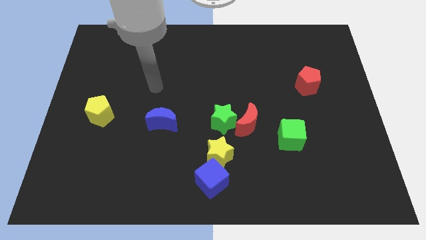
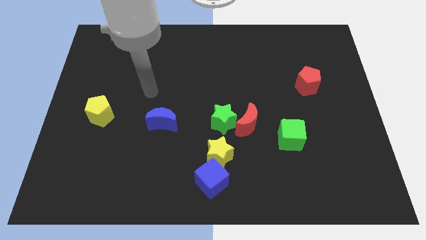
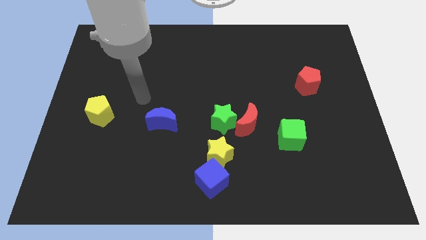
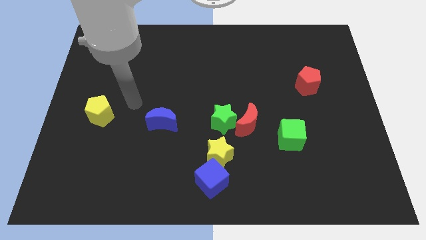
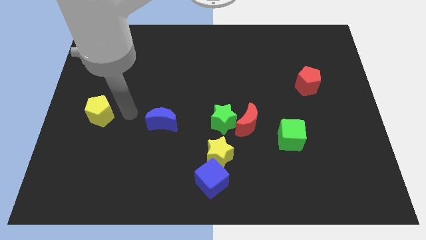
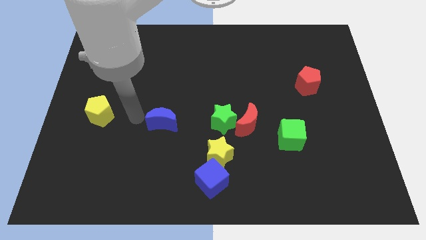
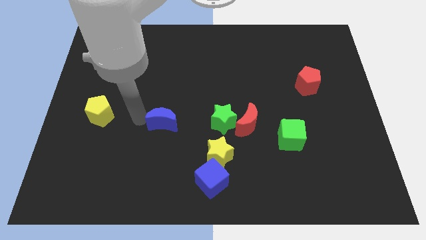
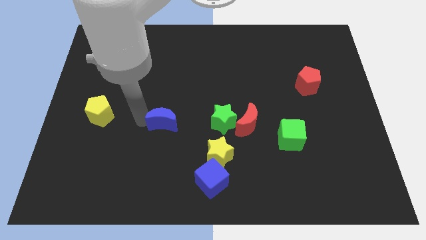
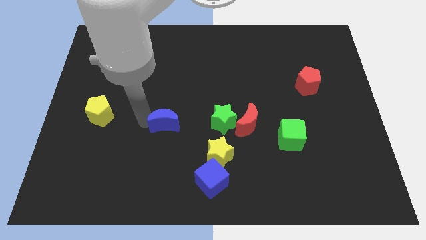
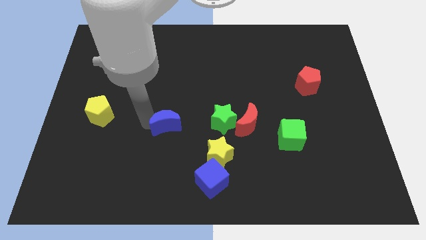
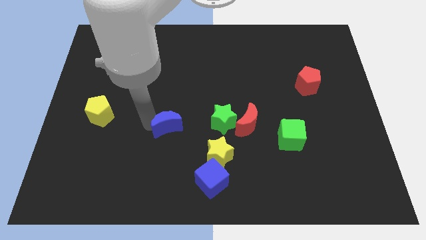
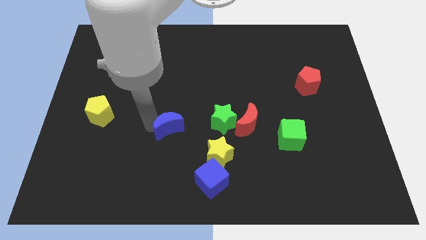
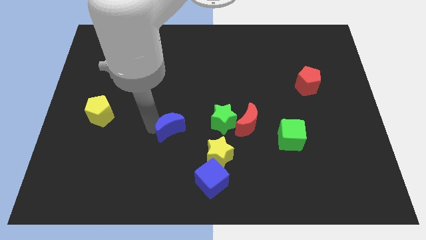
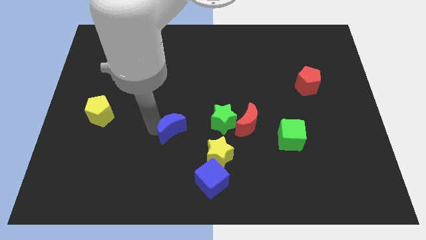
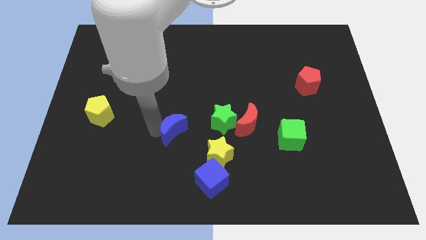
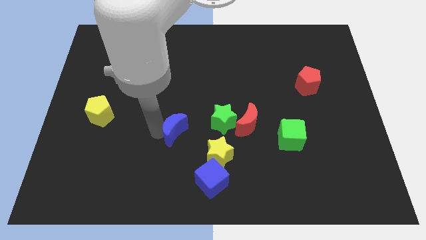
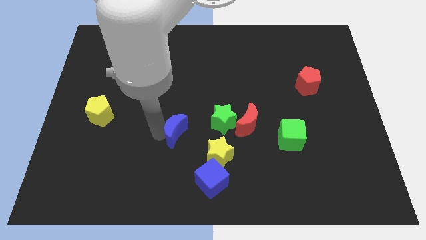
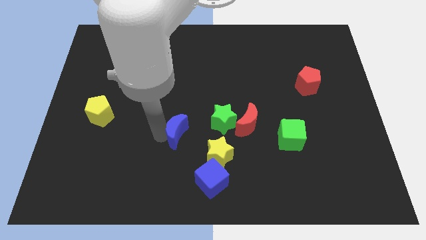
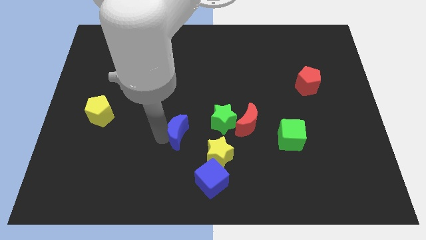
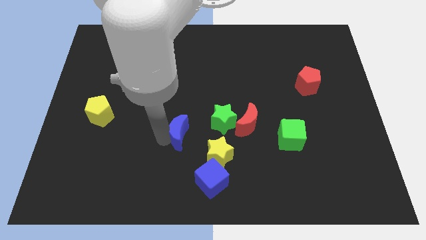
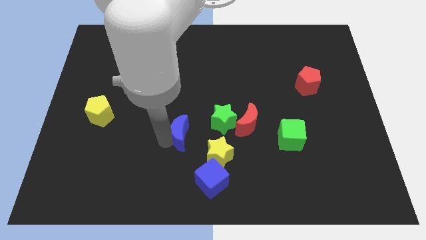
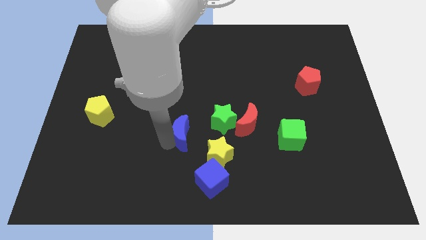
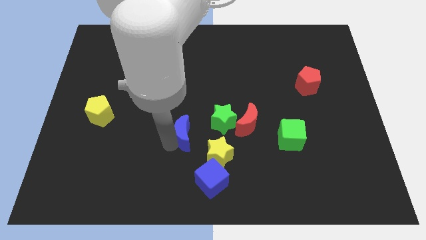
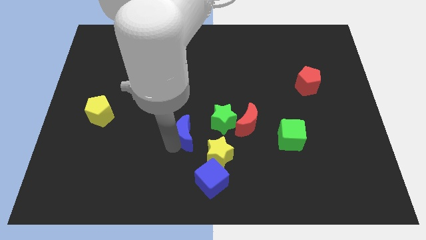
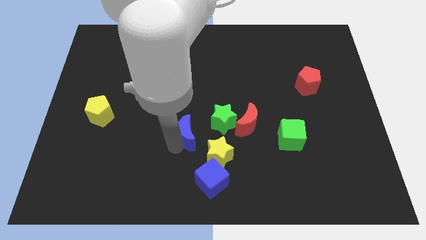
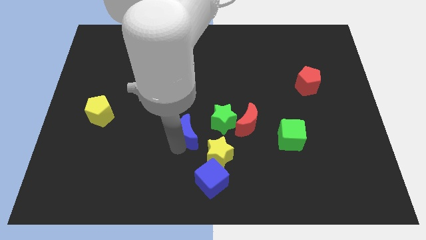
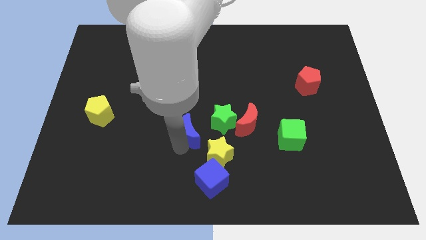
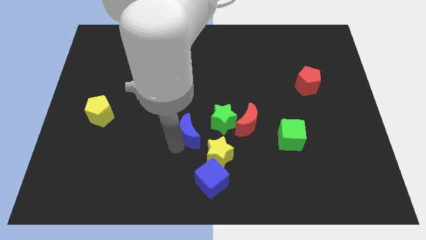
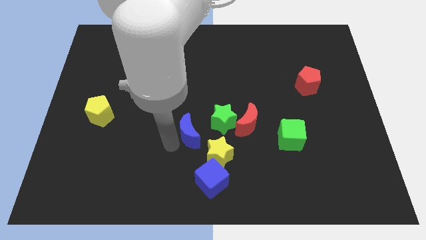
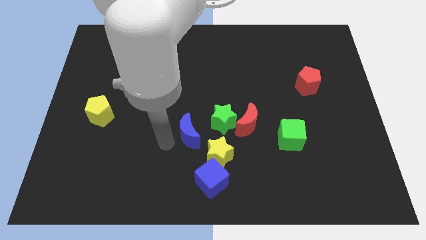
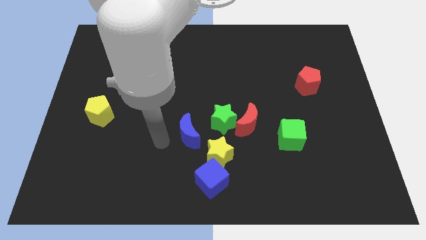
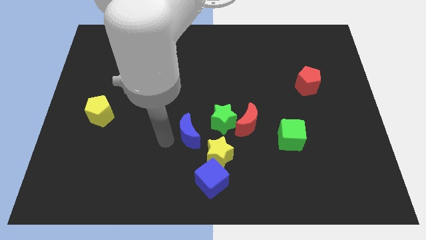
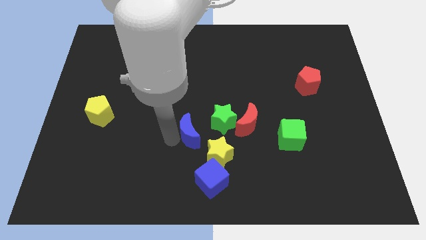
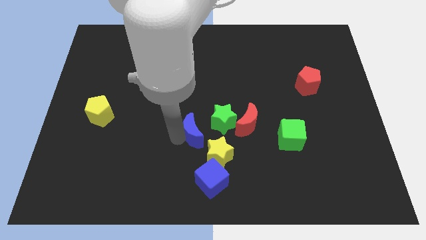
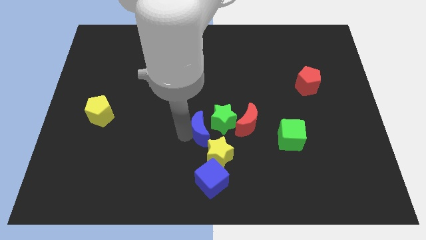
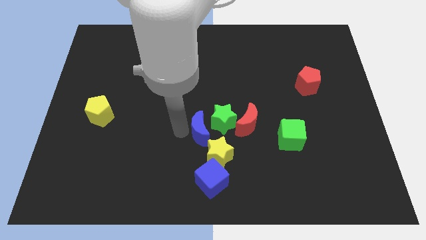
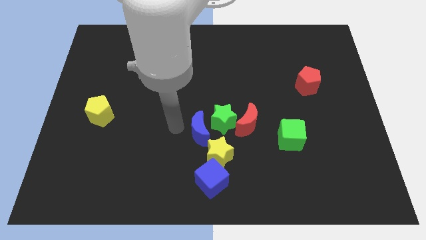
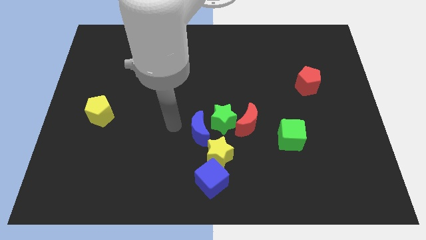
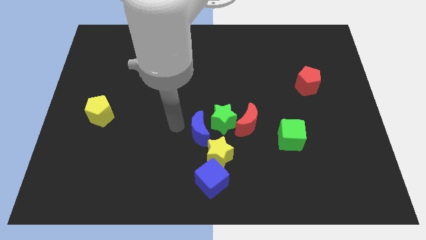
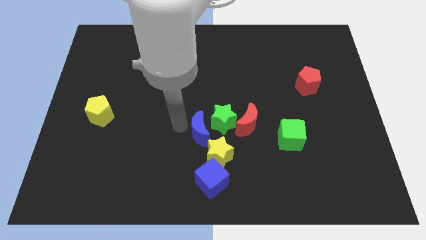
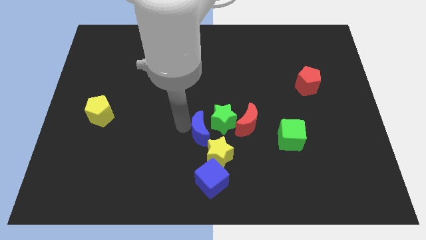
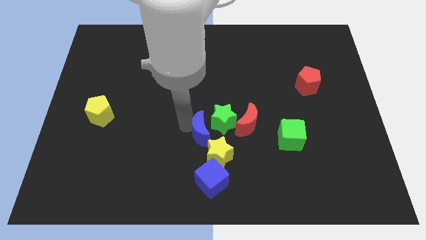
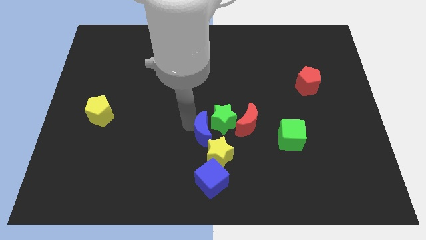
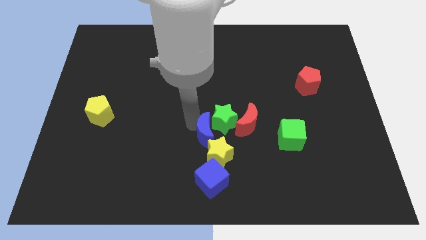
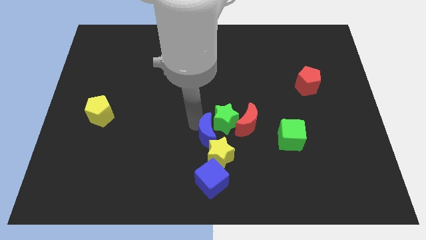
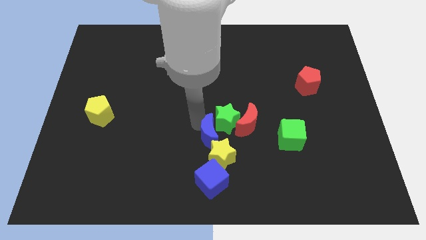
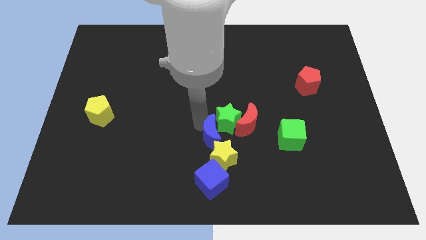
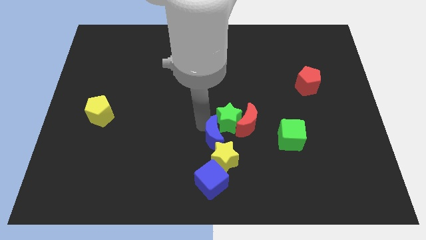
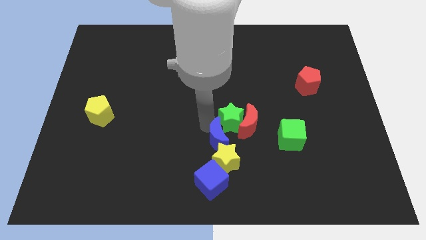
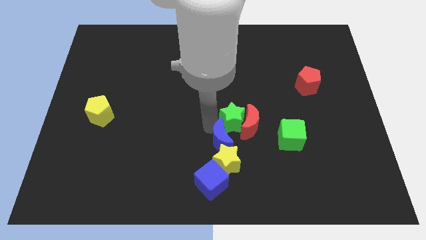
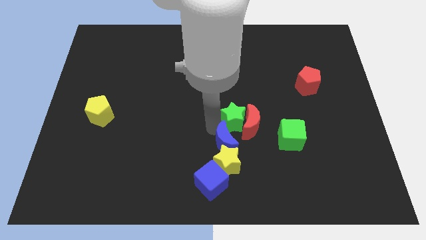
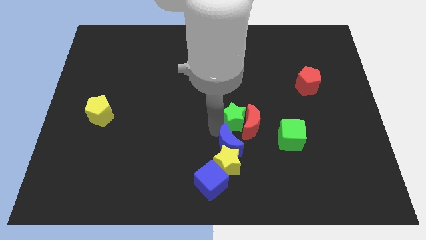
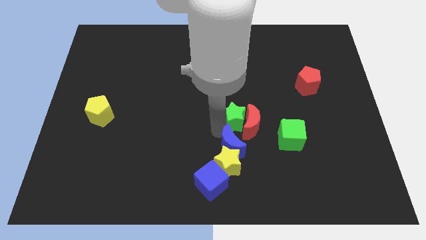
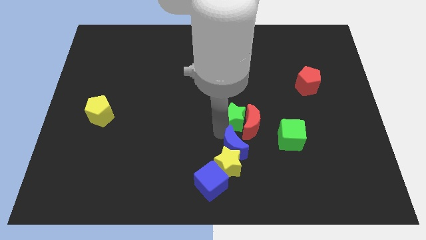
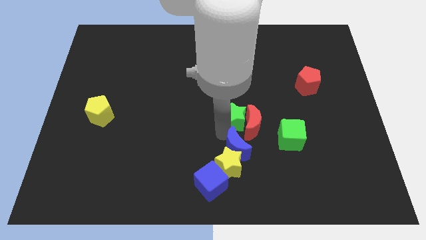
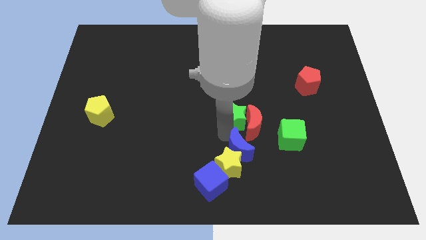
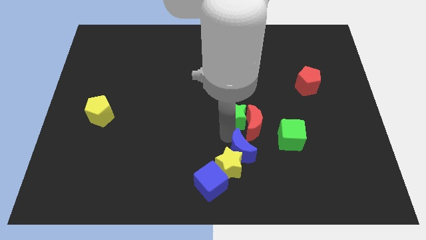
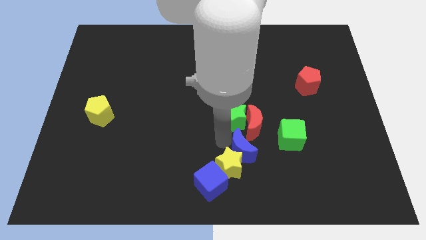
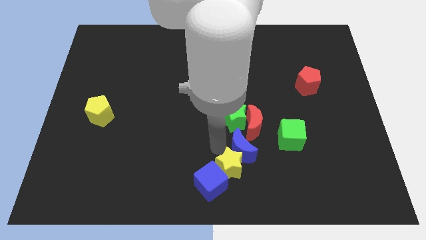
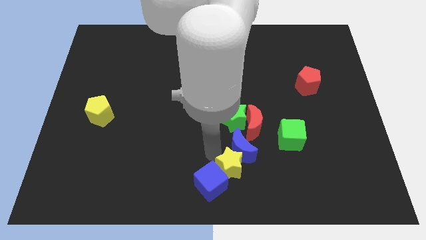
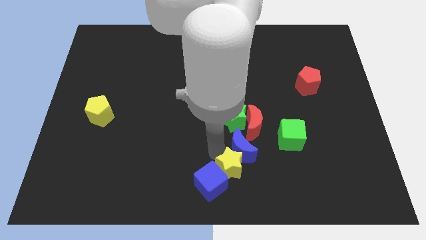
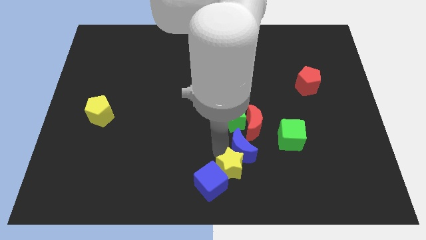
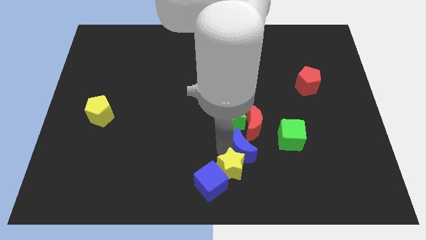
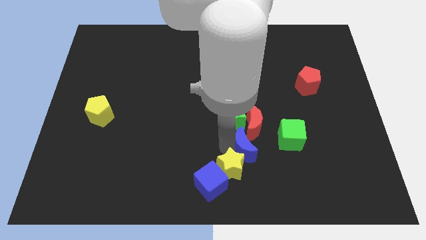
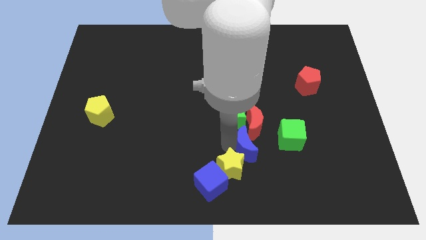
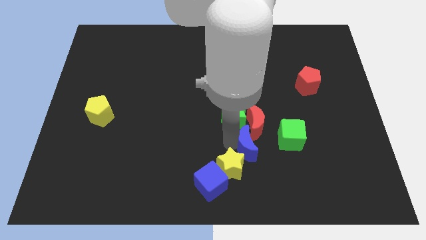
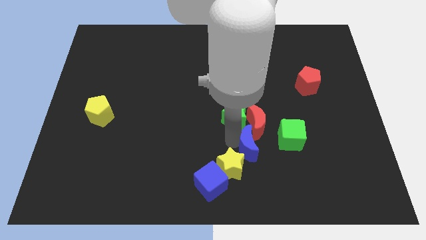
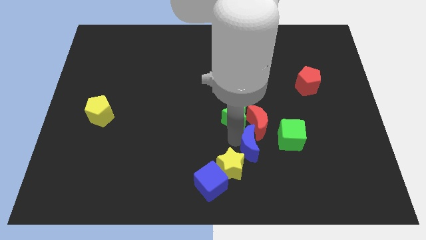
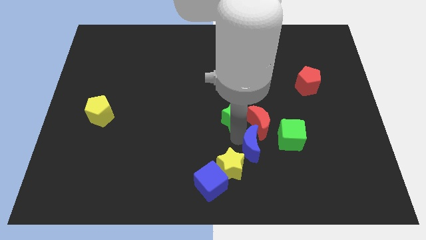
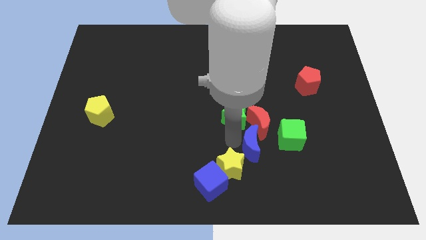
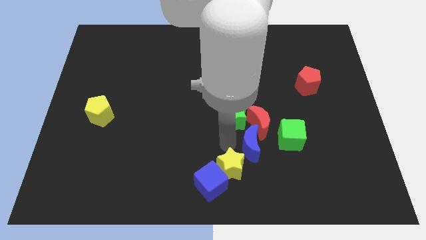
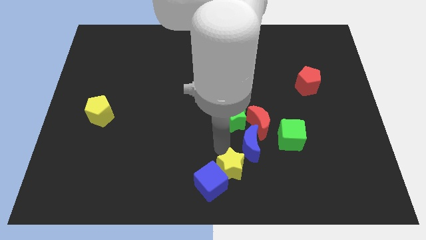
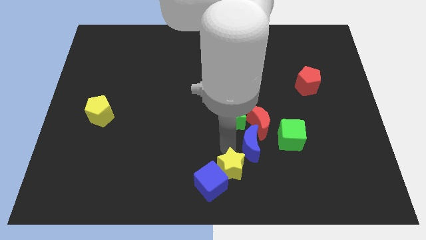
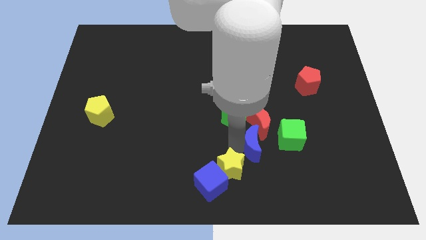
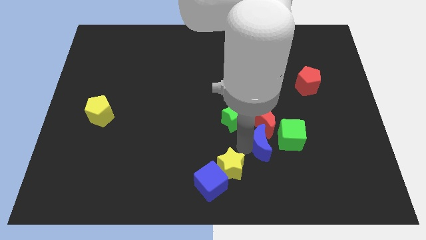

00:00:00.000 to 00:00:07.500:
move the blue moon to the bottom right side of the red moon
